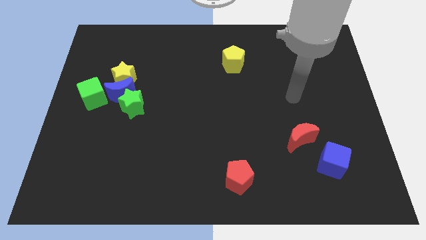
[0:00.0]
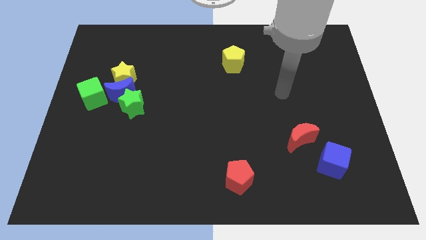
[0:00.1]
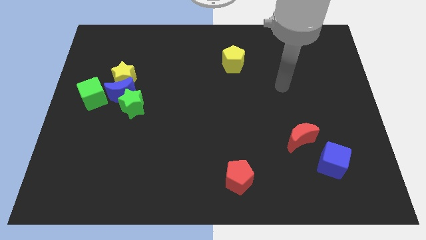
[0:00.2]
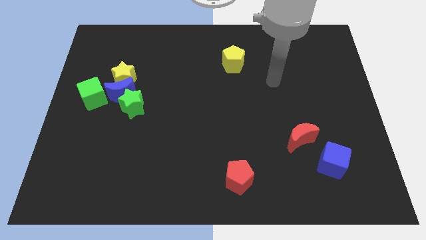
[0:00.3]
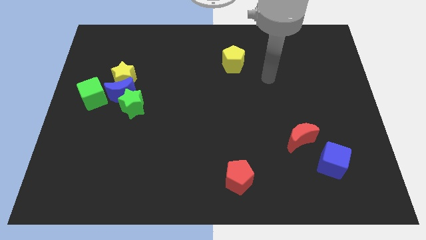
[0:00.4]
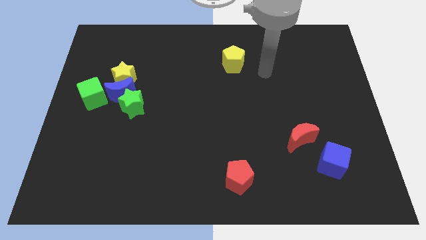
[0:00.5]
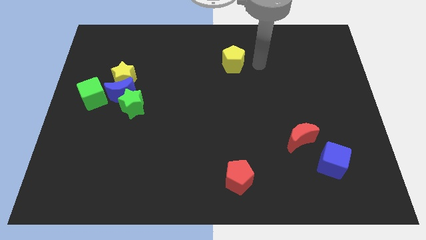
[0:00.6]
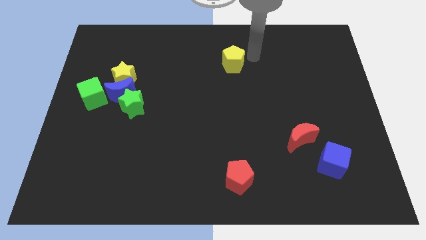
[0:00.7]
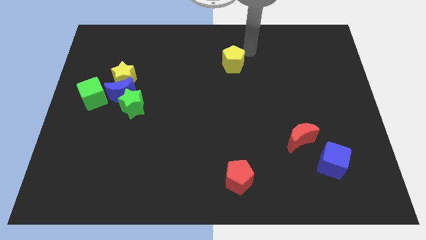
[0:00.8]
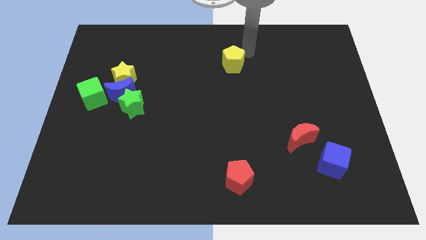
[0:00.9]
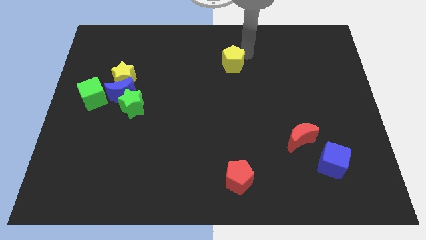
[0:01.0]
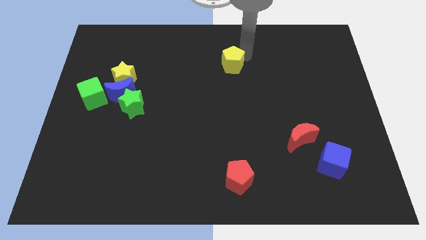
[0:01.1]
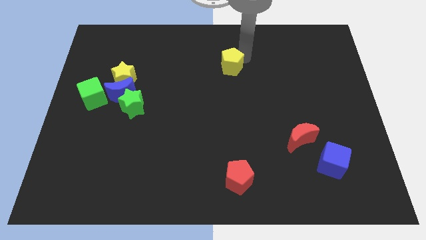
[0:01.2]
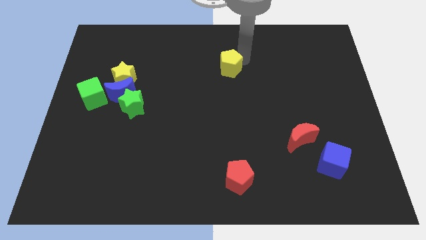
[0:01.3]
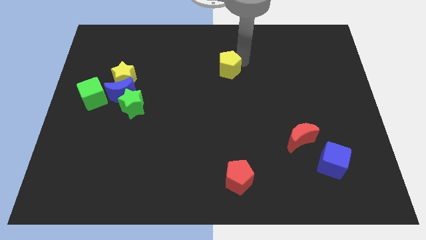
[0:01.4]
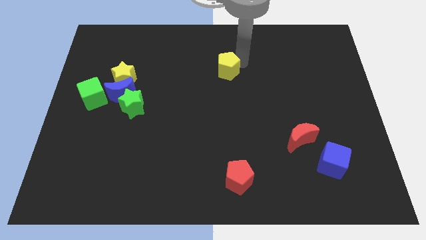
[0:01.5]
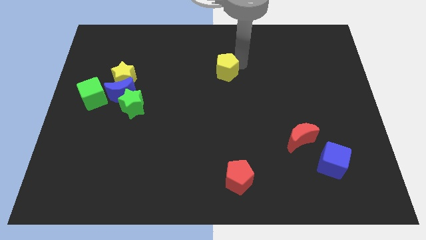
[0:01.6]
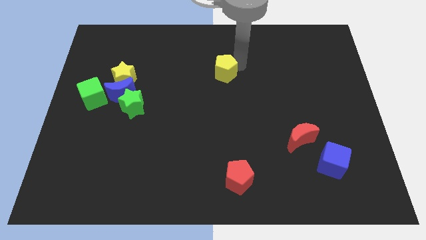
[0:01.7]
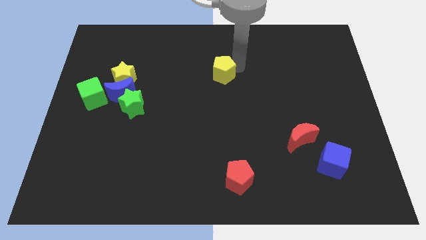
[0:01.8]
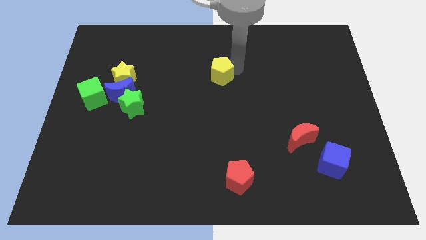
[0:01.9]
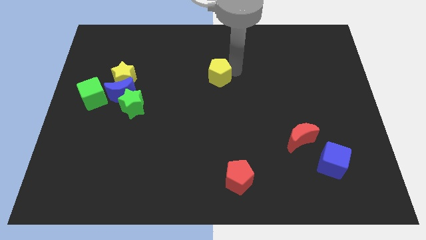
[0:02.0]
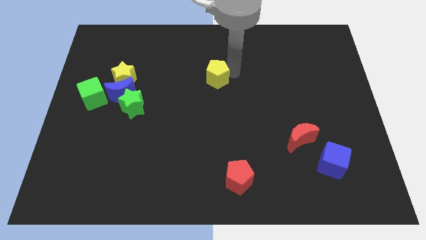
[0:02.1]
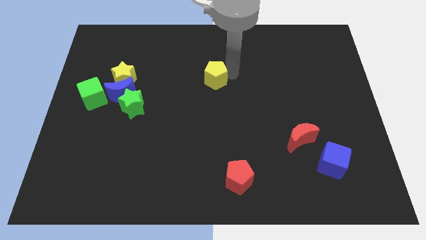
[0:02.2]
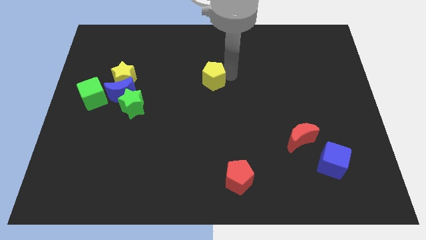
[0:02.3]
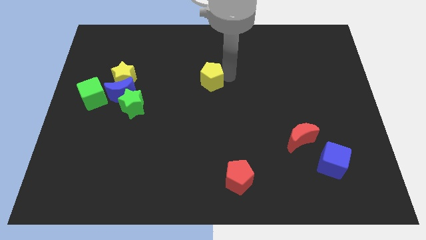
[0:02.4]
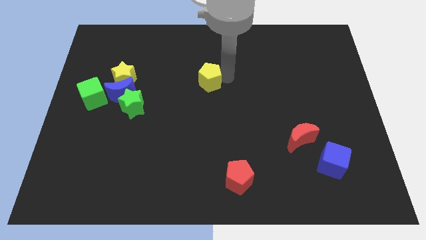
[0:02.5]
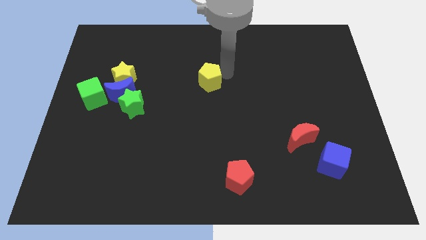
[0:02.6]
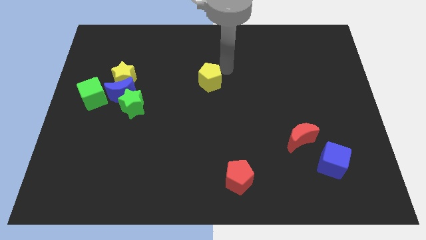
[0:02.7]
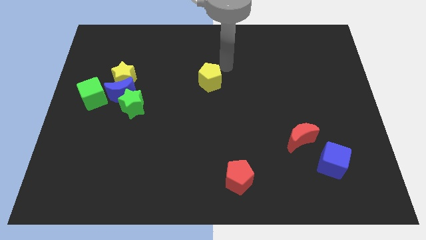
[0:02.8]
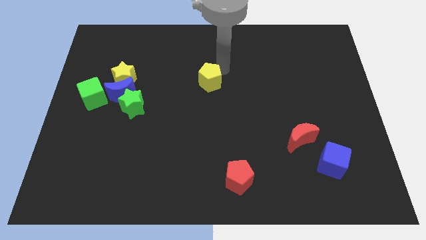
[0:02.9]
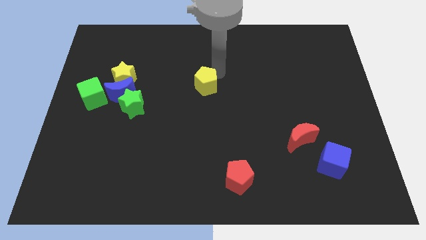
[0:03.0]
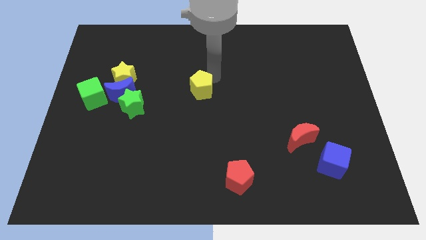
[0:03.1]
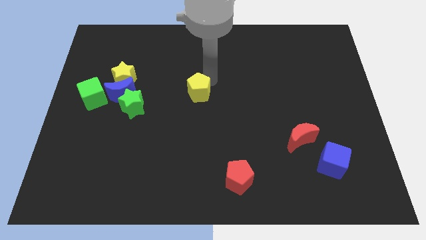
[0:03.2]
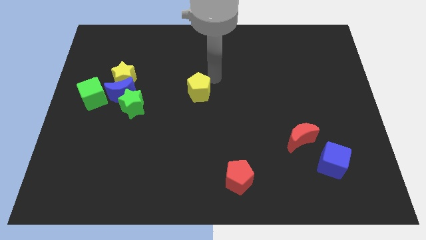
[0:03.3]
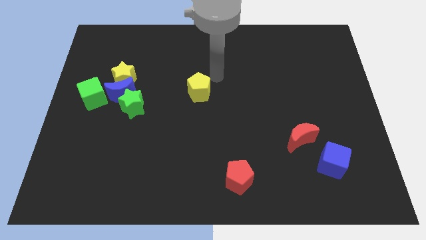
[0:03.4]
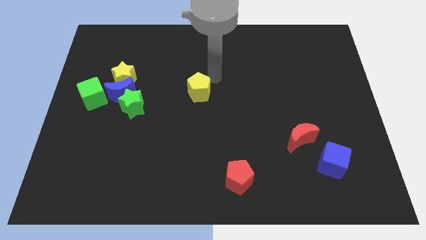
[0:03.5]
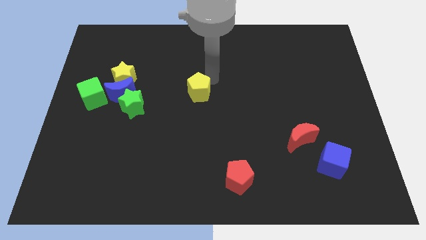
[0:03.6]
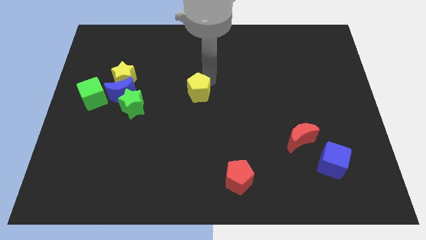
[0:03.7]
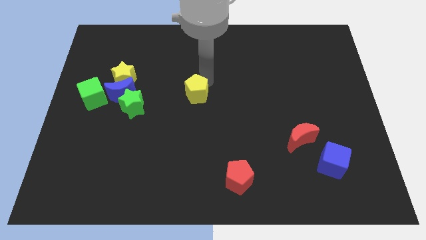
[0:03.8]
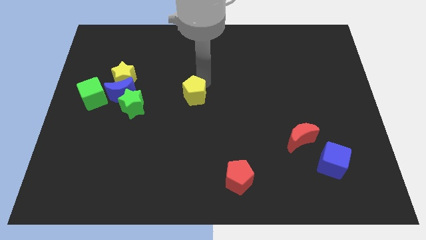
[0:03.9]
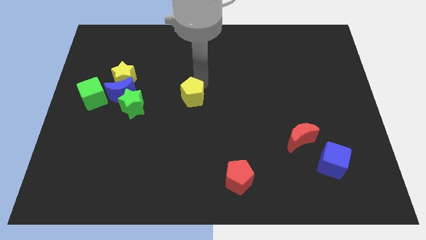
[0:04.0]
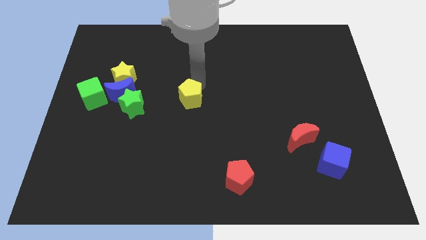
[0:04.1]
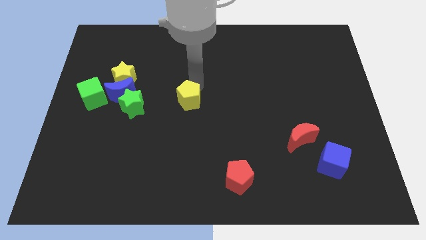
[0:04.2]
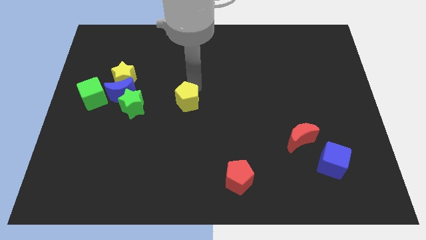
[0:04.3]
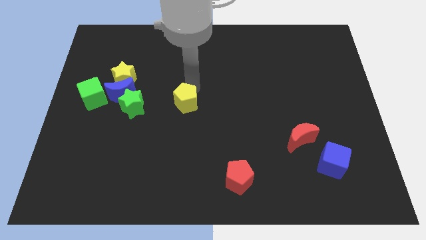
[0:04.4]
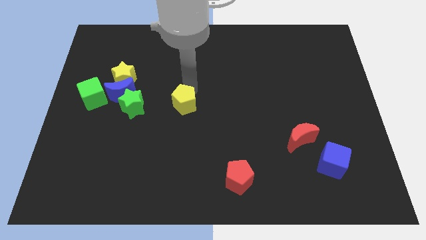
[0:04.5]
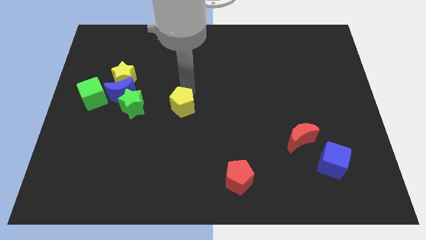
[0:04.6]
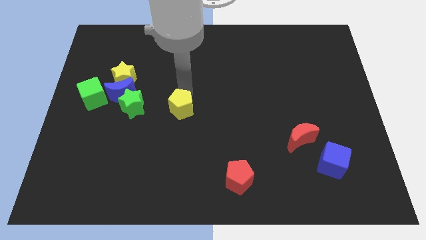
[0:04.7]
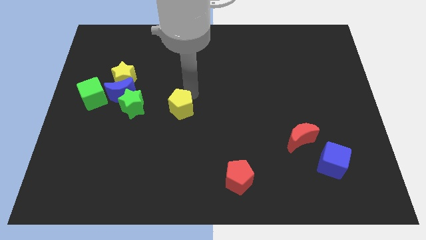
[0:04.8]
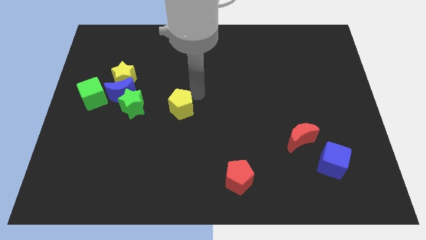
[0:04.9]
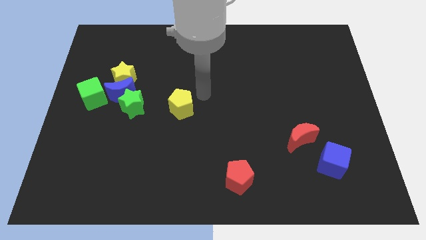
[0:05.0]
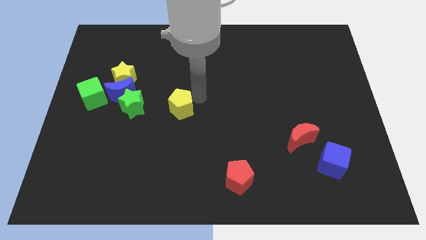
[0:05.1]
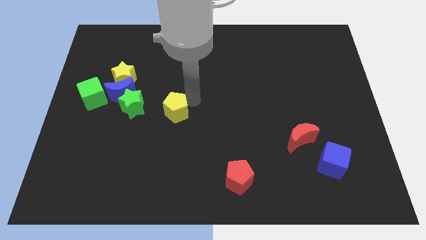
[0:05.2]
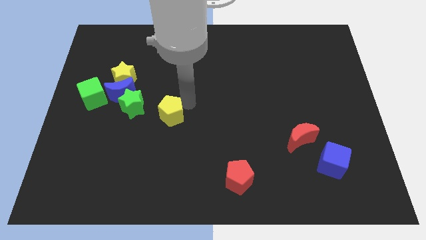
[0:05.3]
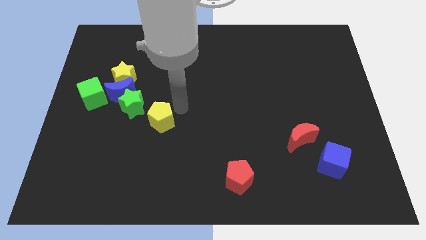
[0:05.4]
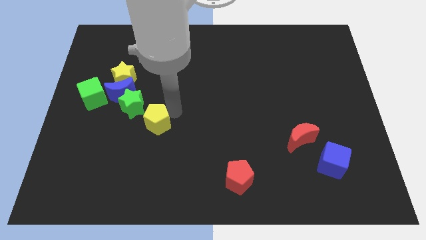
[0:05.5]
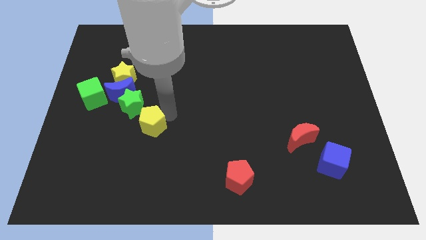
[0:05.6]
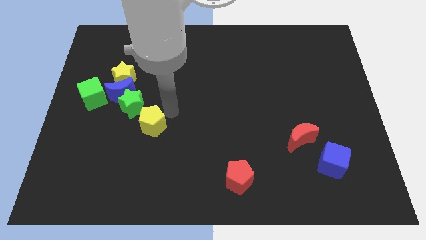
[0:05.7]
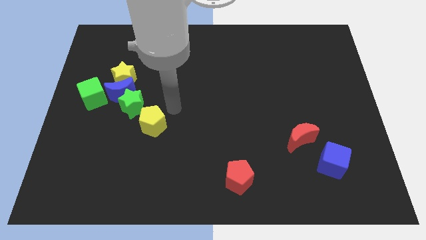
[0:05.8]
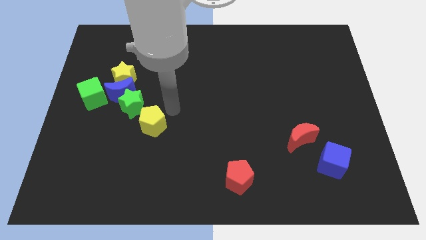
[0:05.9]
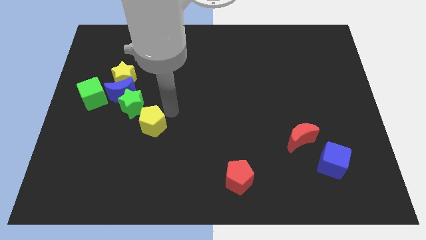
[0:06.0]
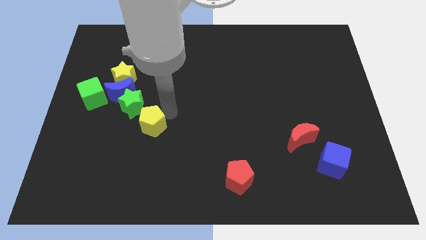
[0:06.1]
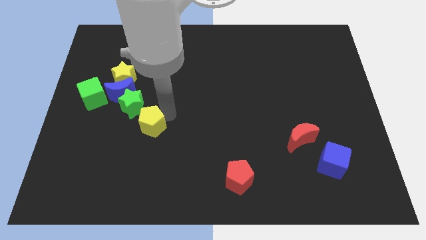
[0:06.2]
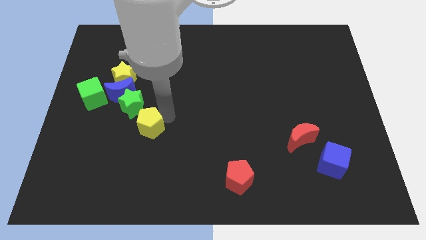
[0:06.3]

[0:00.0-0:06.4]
move the yellow pentagon to the bottom of the green star

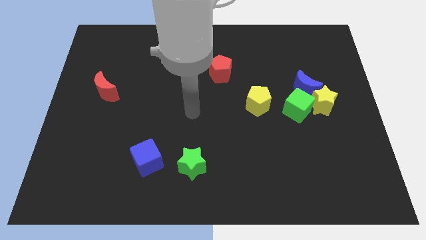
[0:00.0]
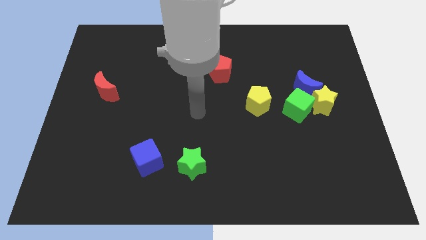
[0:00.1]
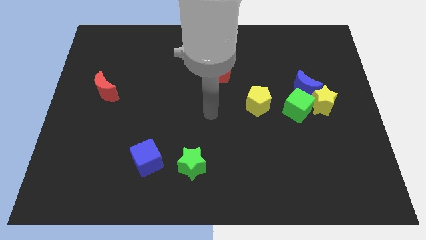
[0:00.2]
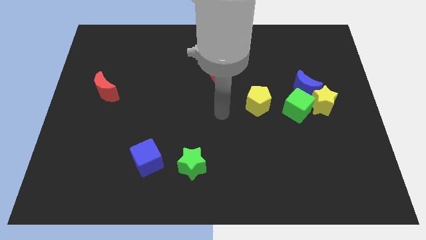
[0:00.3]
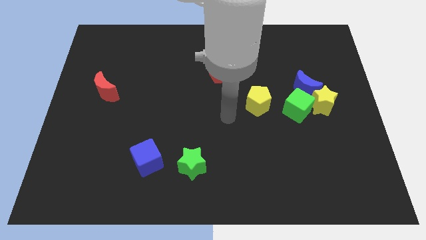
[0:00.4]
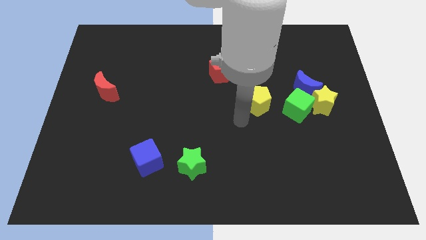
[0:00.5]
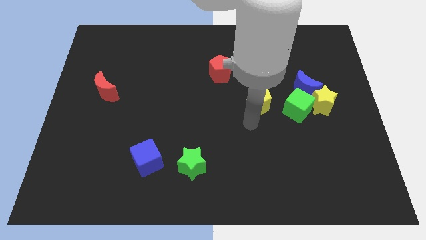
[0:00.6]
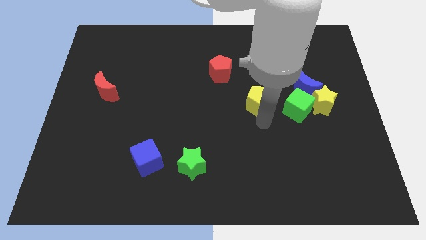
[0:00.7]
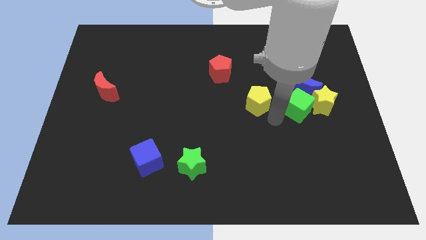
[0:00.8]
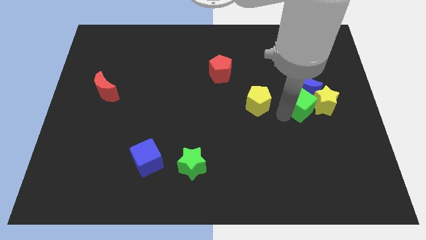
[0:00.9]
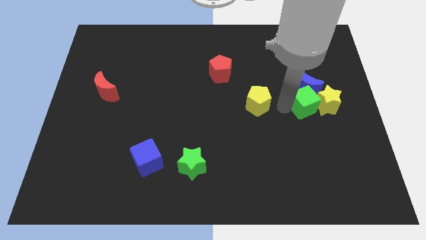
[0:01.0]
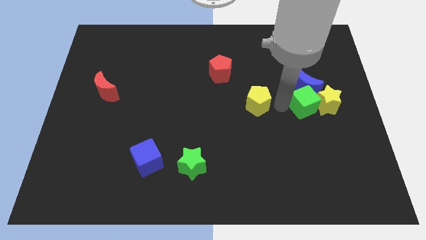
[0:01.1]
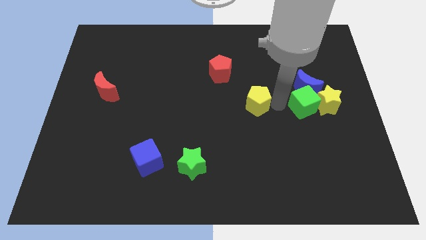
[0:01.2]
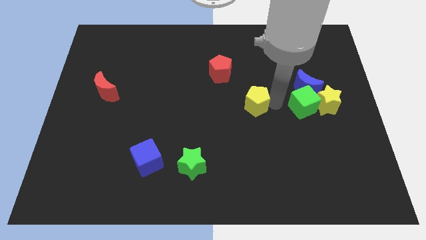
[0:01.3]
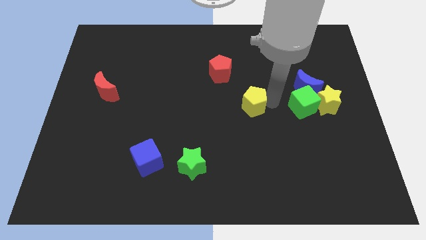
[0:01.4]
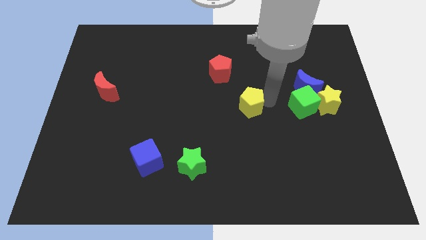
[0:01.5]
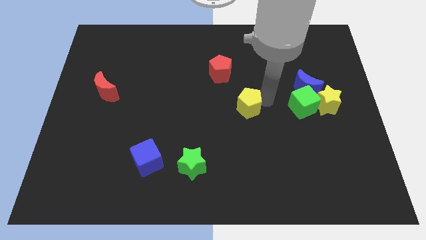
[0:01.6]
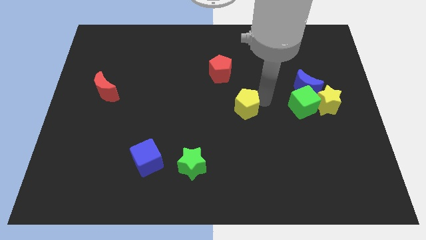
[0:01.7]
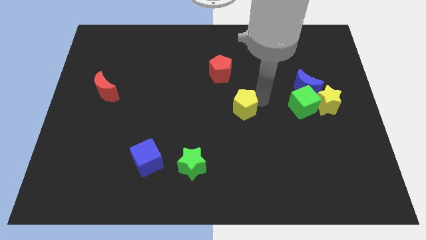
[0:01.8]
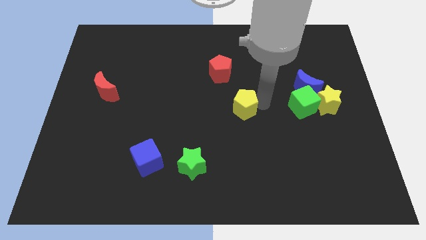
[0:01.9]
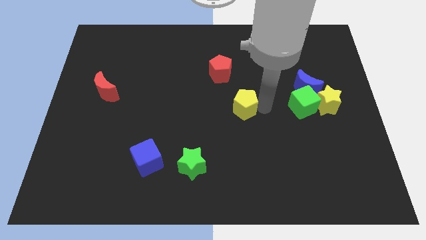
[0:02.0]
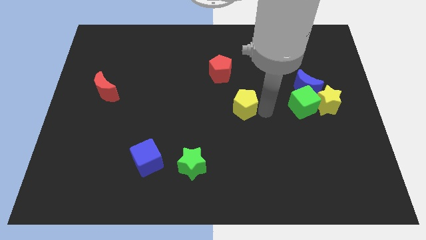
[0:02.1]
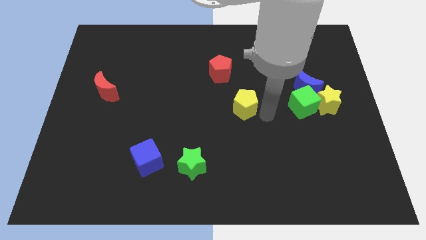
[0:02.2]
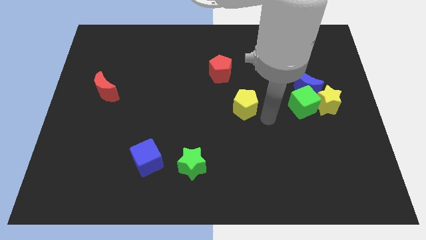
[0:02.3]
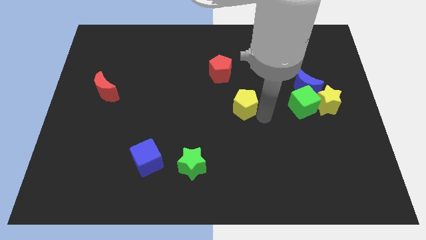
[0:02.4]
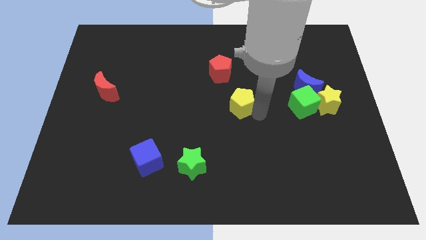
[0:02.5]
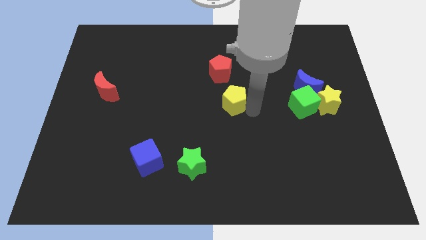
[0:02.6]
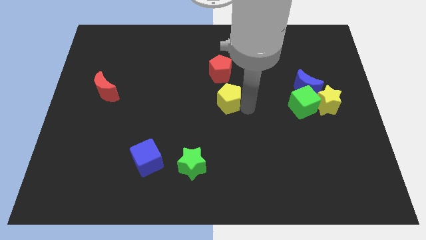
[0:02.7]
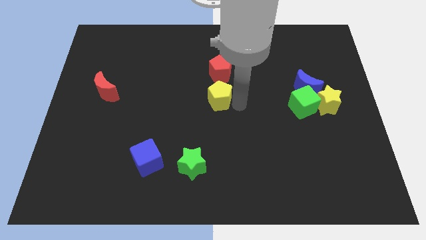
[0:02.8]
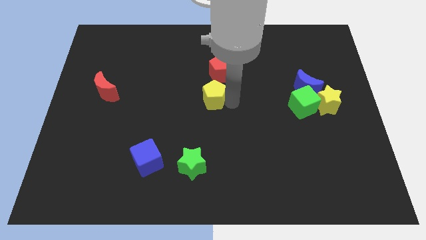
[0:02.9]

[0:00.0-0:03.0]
push the yellow pentagon to the bottom left side of the red pentagon
